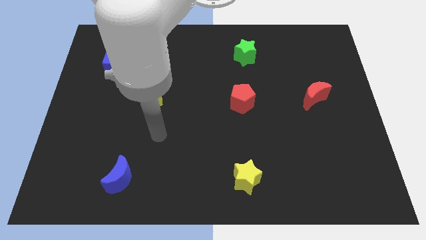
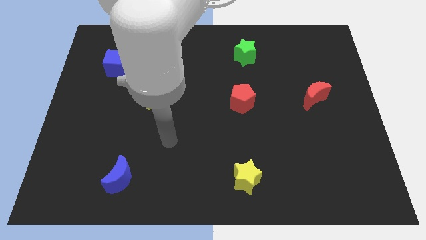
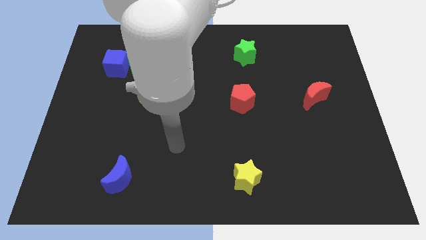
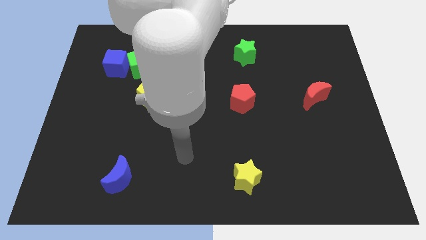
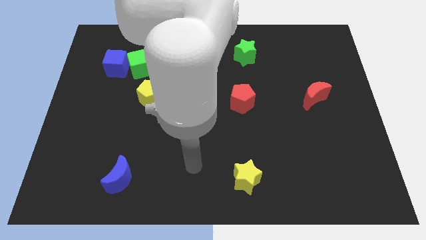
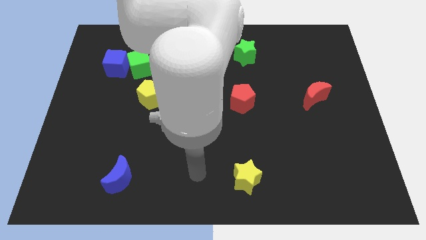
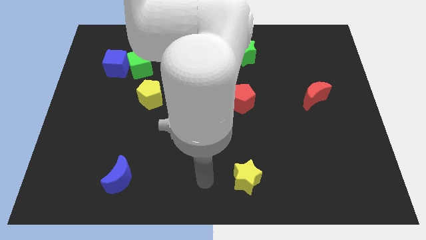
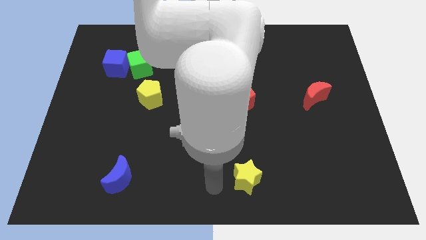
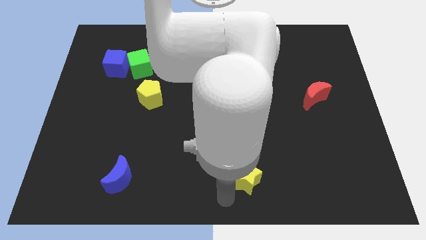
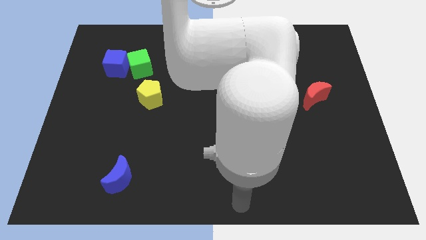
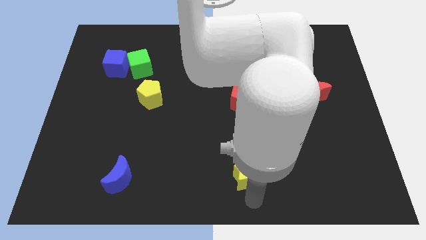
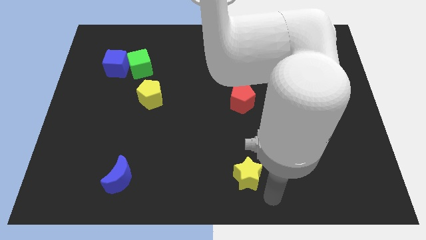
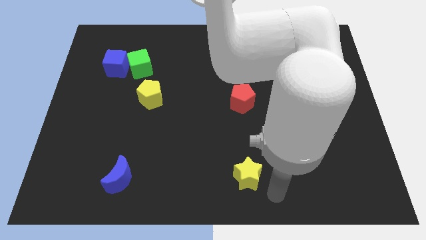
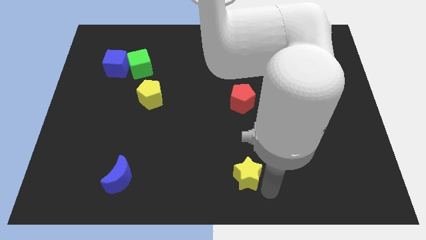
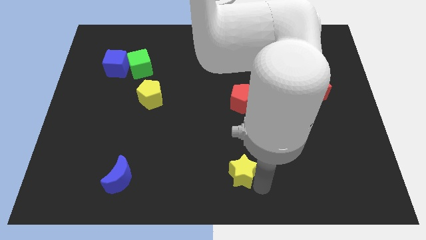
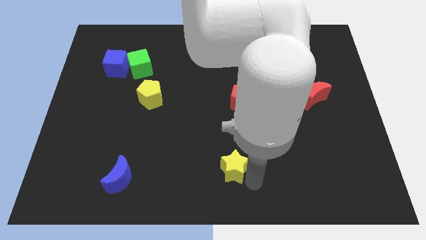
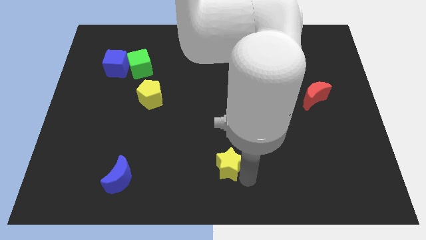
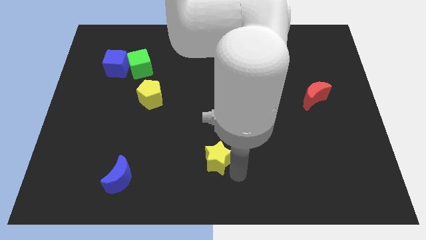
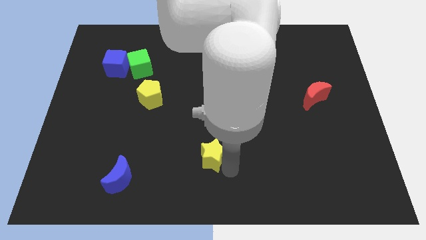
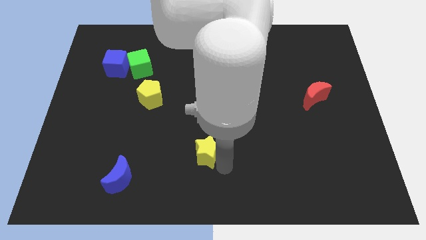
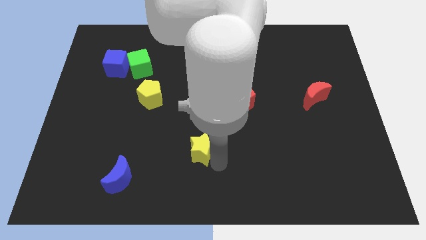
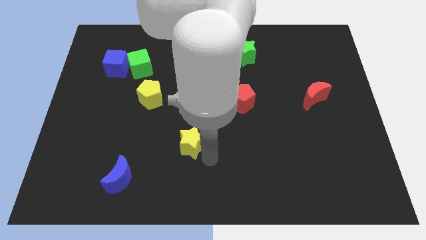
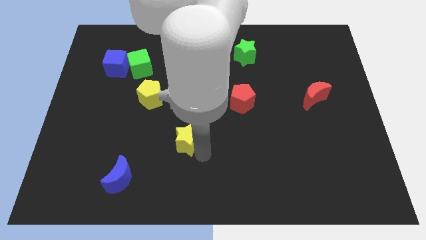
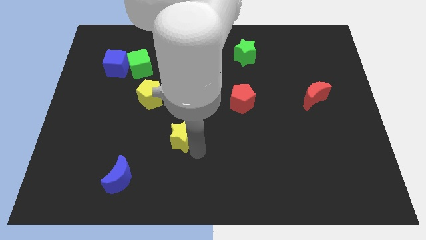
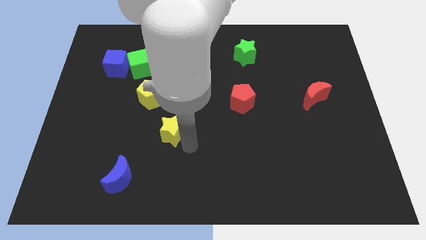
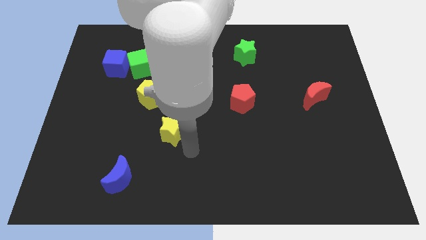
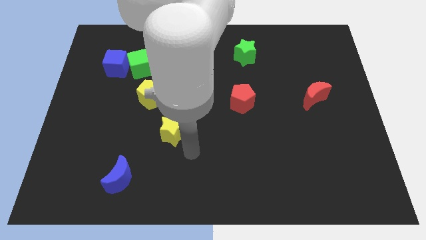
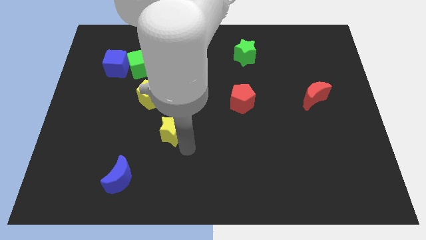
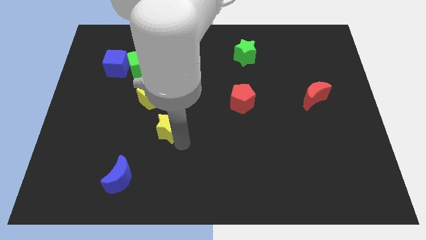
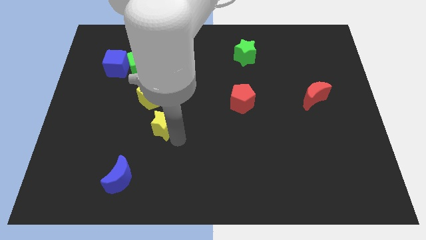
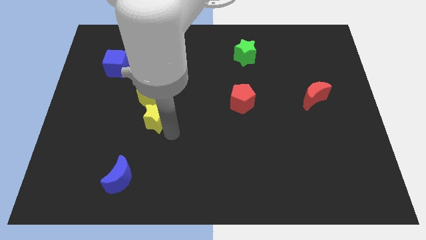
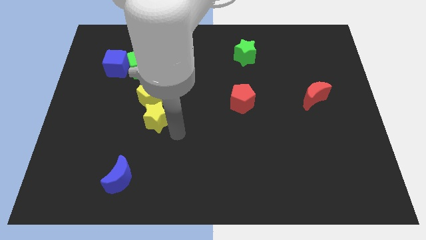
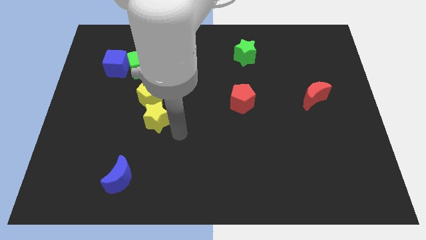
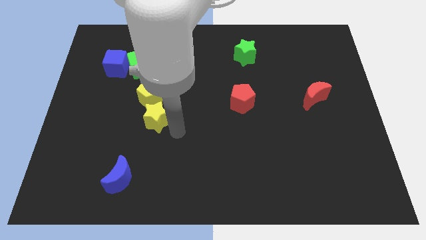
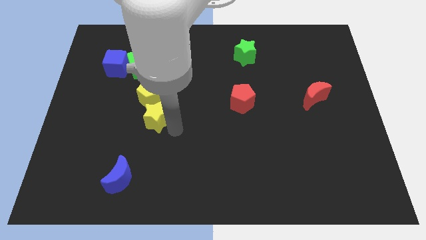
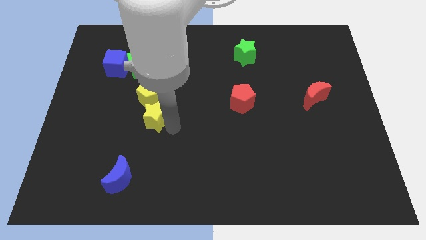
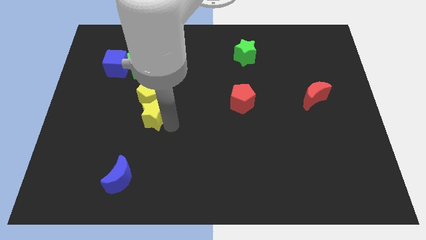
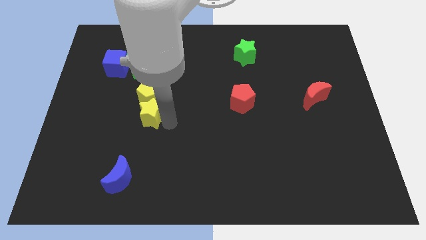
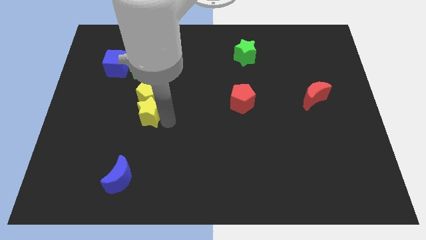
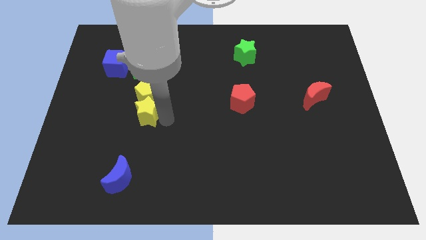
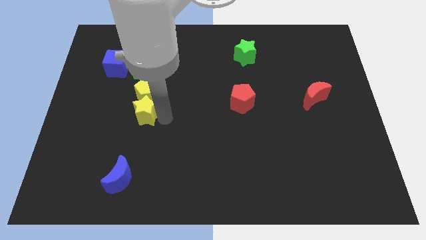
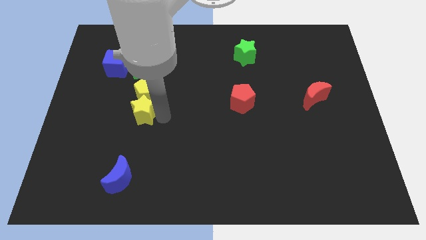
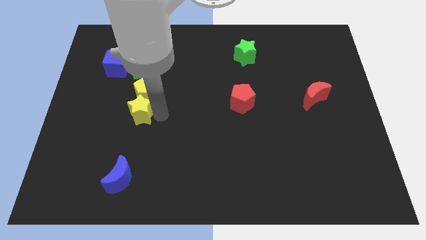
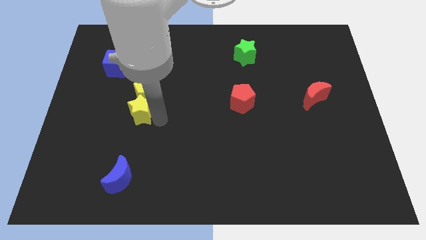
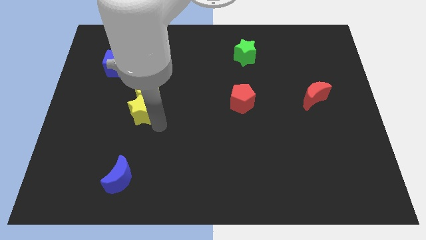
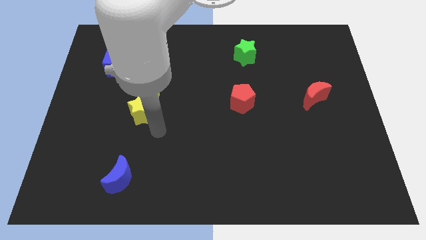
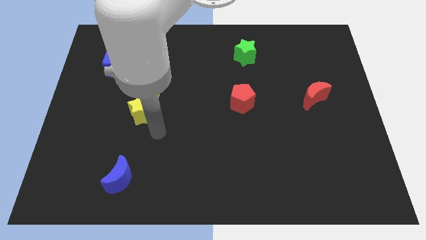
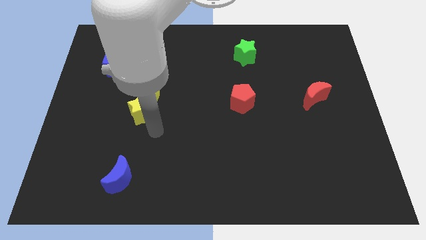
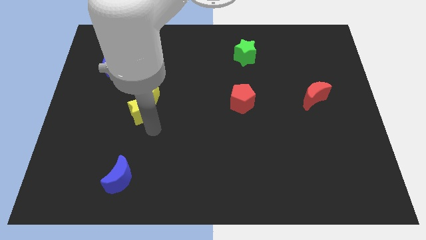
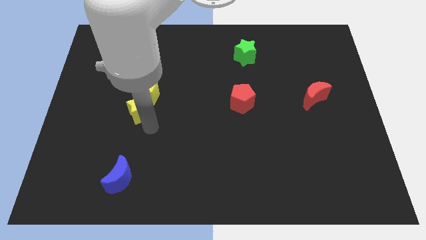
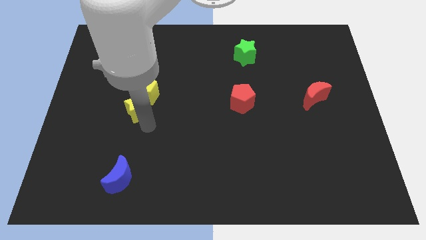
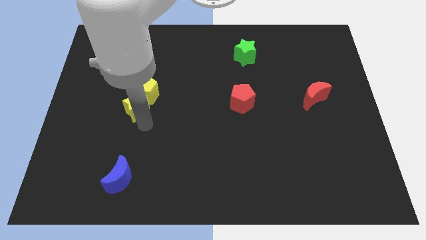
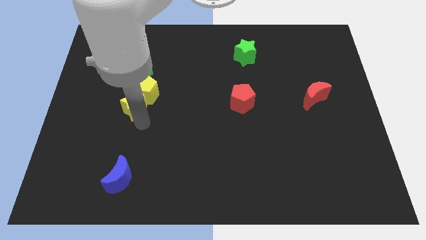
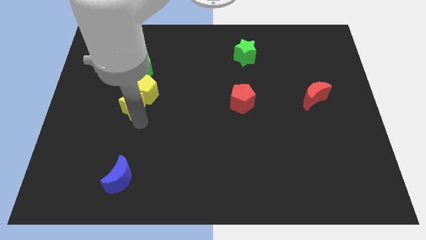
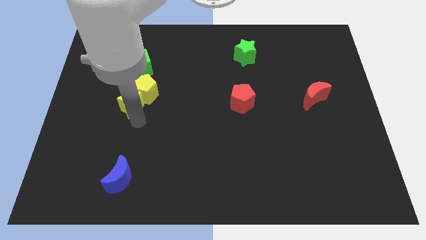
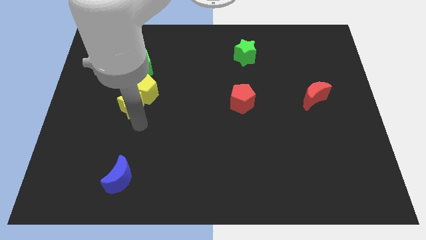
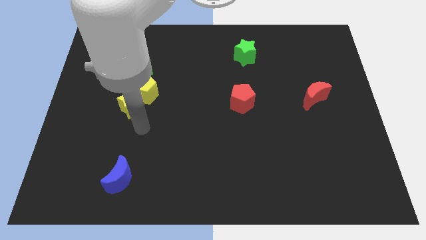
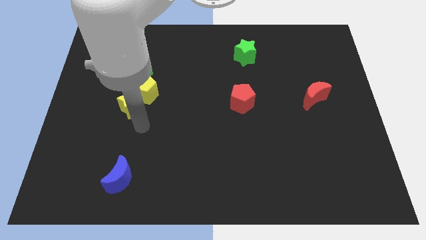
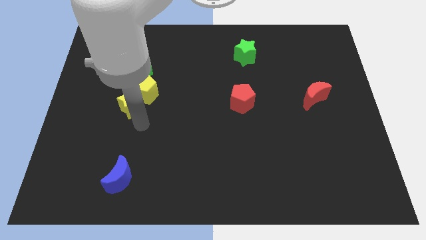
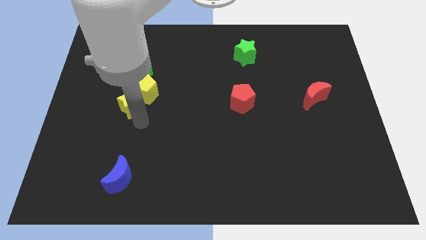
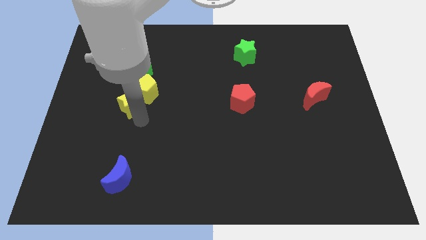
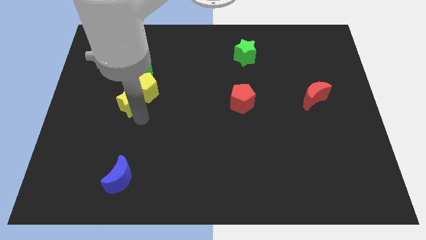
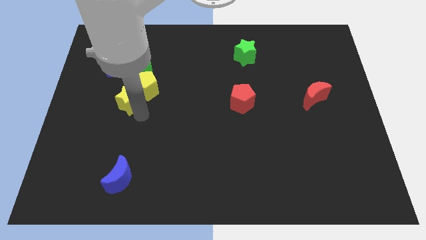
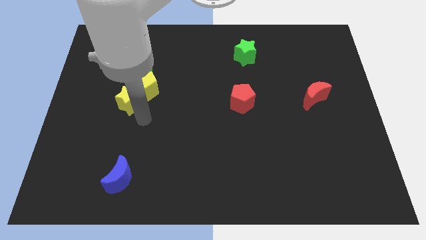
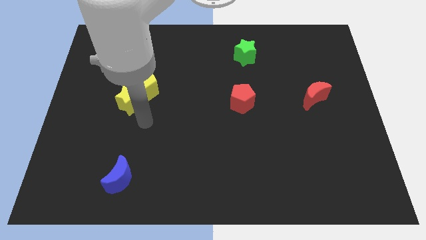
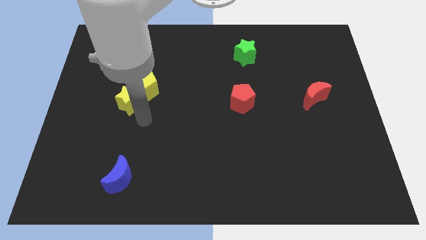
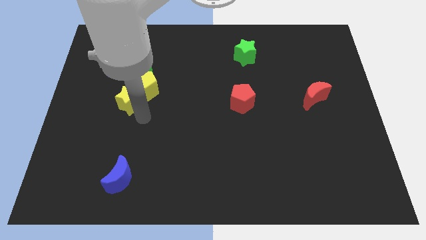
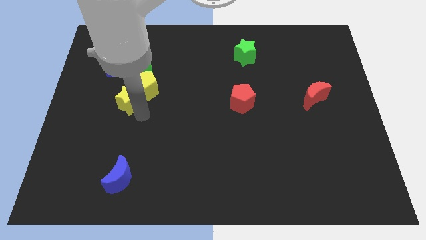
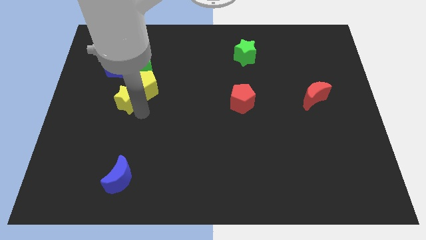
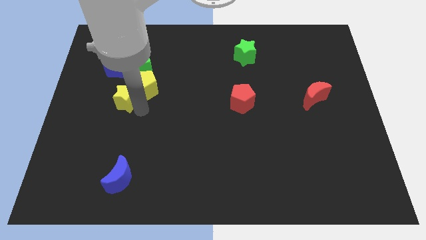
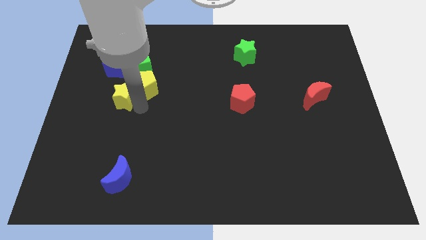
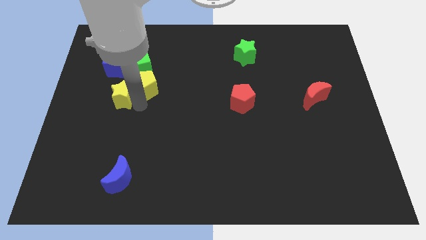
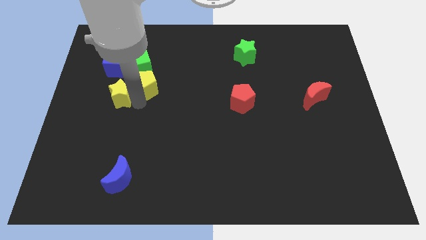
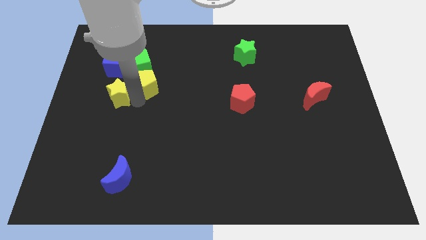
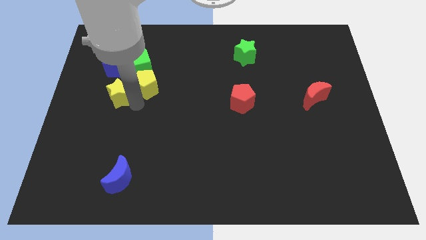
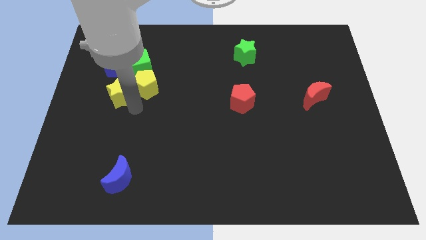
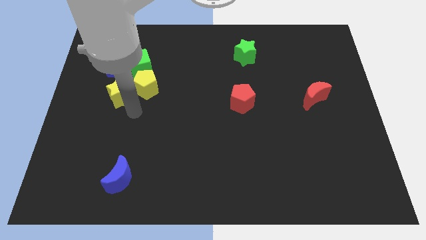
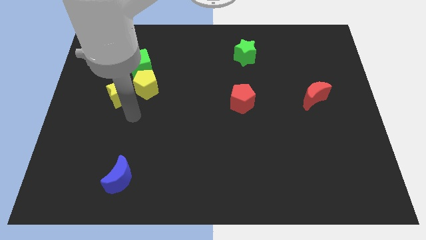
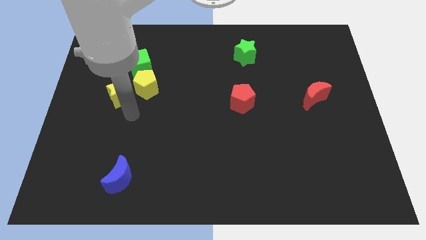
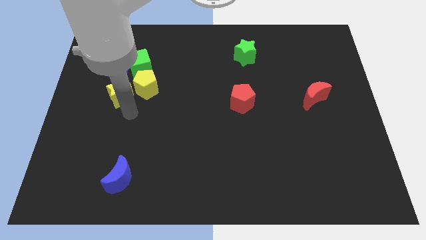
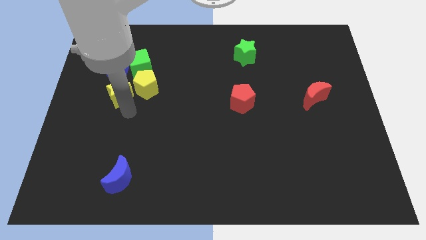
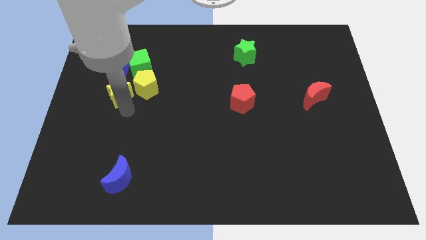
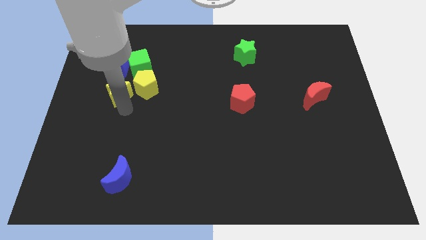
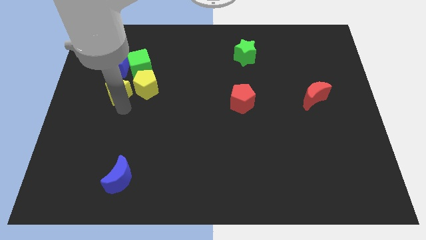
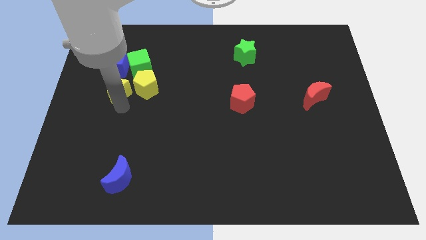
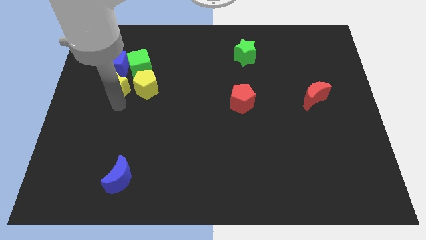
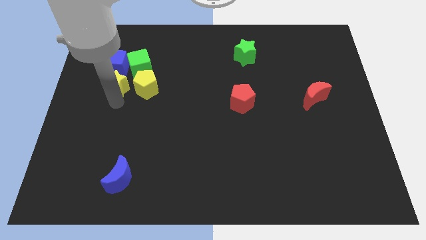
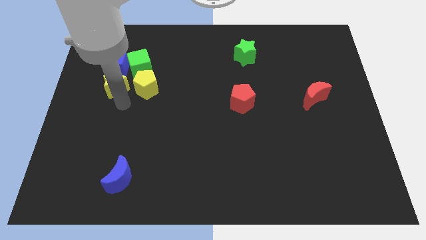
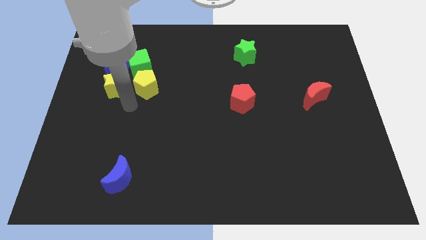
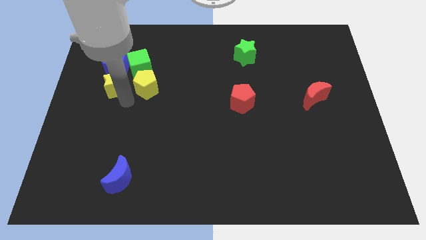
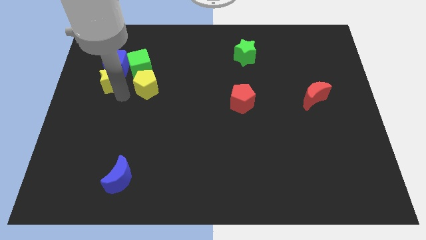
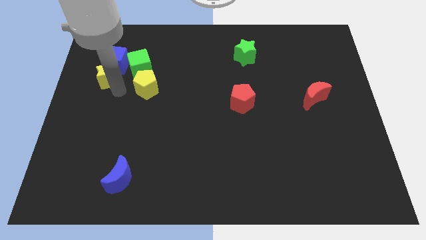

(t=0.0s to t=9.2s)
slide the yellow star just left of the green cube
